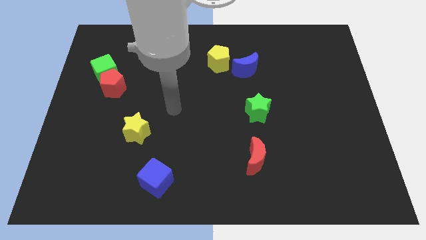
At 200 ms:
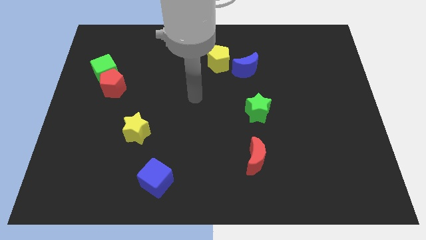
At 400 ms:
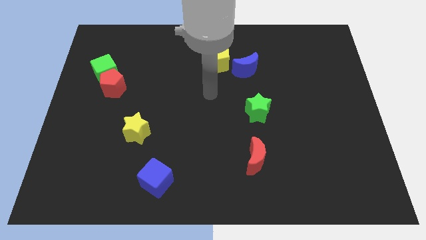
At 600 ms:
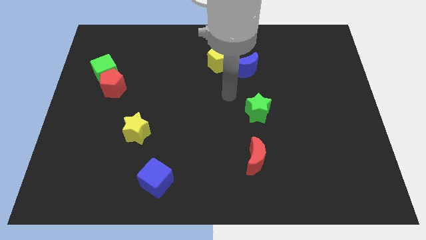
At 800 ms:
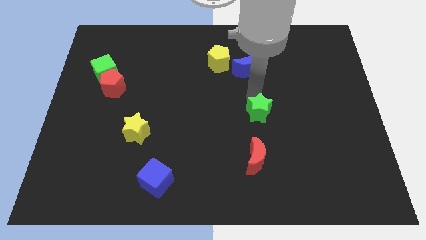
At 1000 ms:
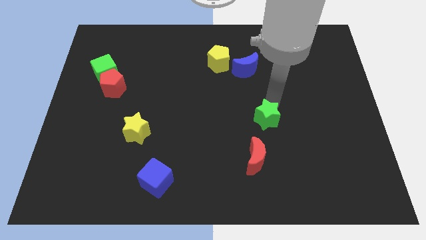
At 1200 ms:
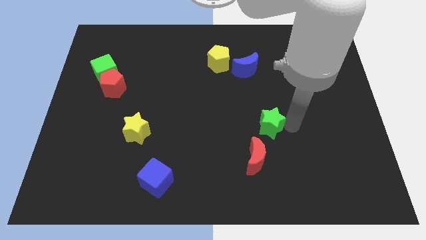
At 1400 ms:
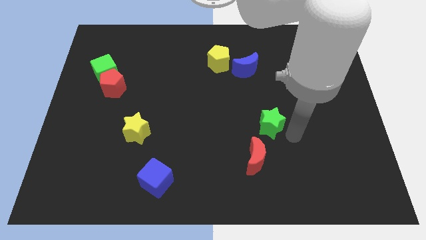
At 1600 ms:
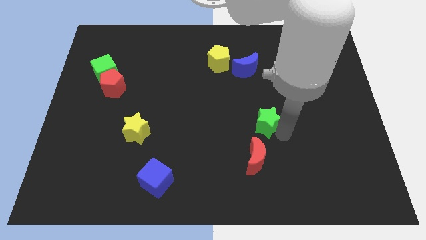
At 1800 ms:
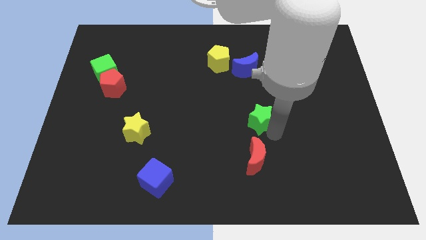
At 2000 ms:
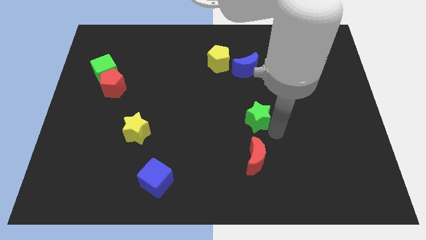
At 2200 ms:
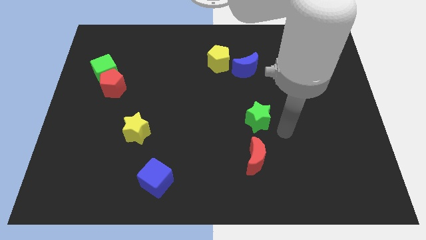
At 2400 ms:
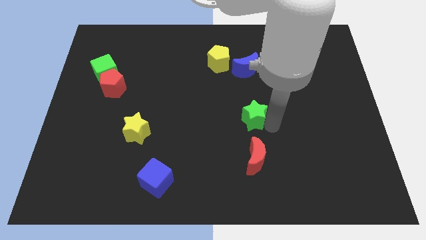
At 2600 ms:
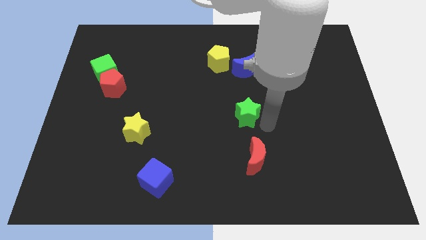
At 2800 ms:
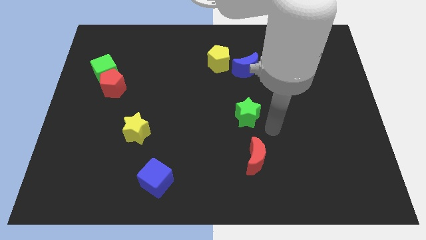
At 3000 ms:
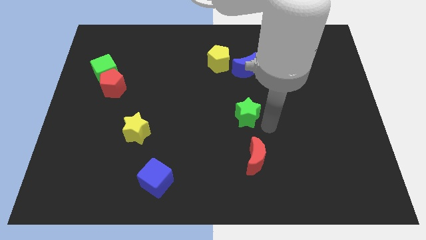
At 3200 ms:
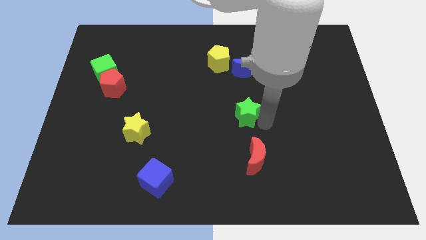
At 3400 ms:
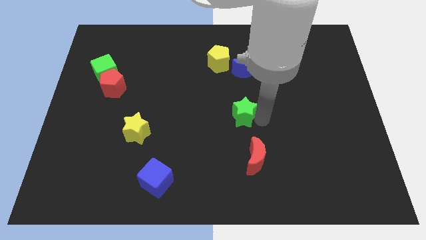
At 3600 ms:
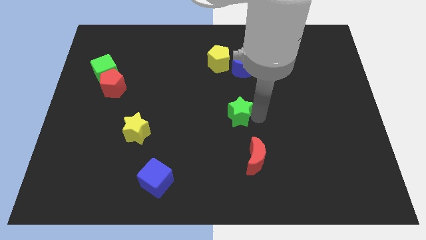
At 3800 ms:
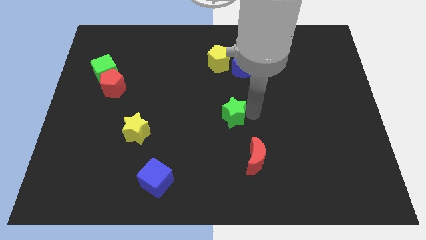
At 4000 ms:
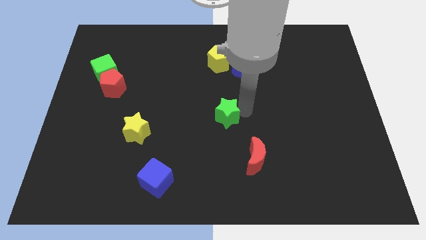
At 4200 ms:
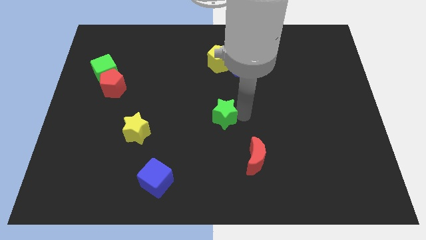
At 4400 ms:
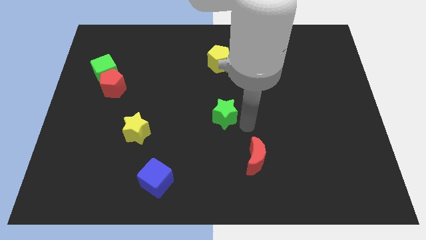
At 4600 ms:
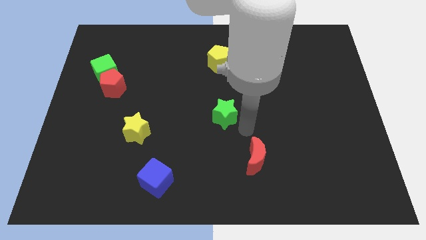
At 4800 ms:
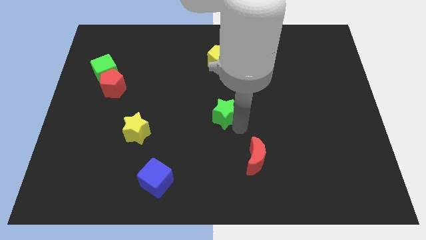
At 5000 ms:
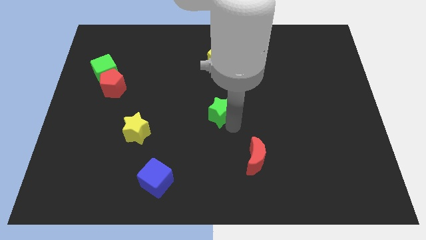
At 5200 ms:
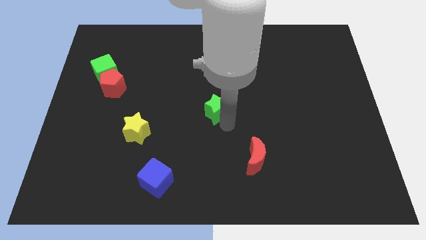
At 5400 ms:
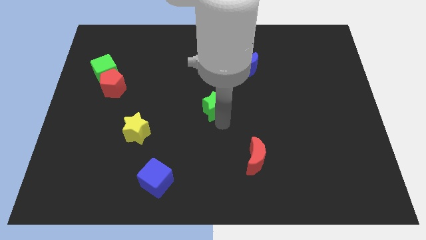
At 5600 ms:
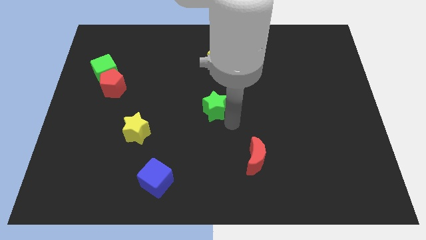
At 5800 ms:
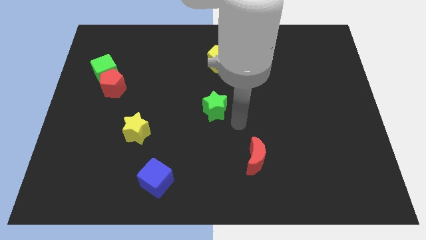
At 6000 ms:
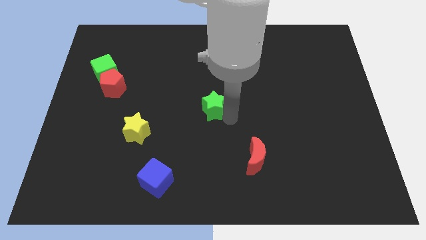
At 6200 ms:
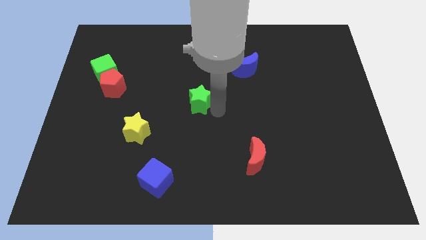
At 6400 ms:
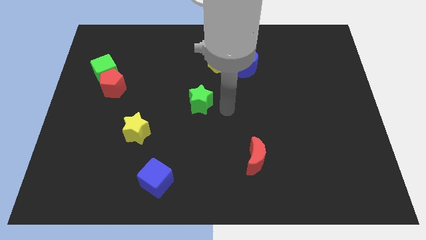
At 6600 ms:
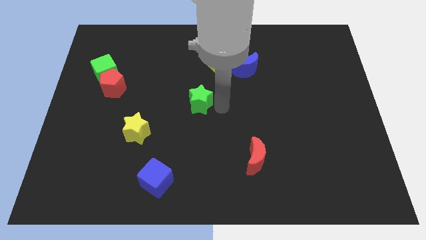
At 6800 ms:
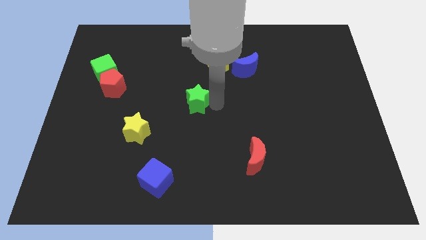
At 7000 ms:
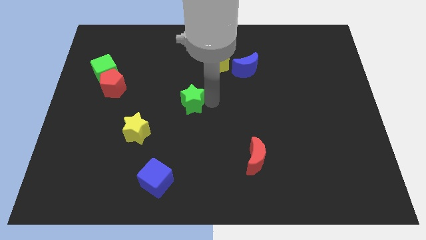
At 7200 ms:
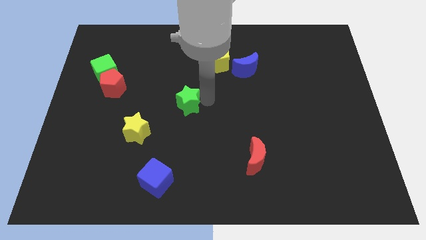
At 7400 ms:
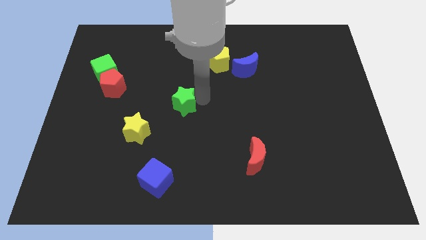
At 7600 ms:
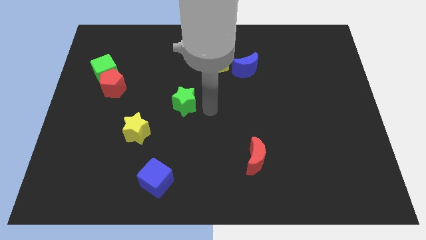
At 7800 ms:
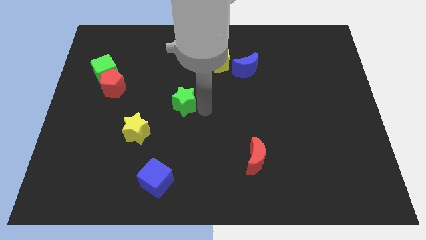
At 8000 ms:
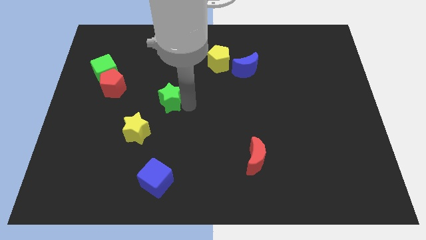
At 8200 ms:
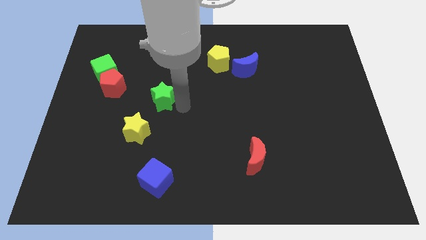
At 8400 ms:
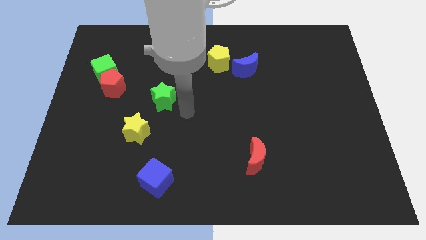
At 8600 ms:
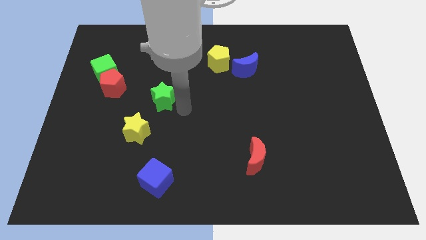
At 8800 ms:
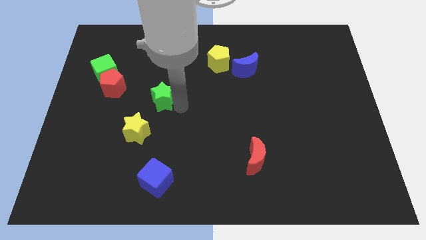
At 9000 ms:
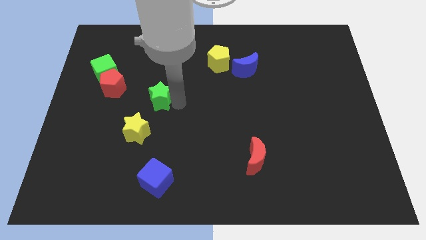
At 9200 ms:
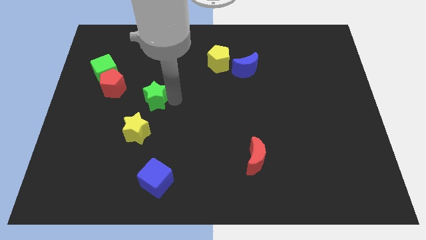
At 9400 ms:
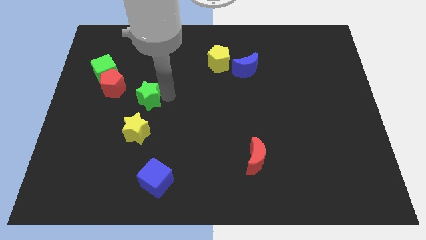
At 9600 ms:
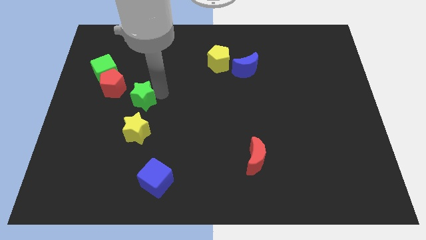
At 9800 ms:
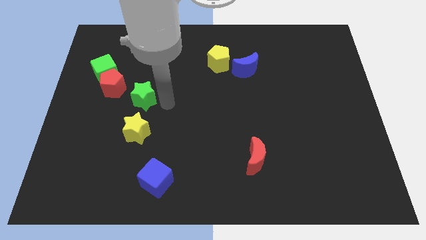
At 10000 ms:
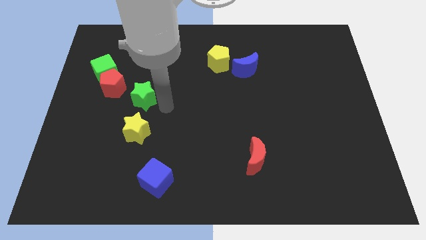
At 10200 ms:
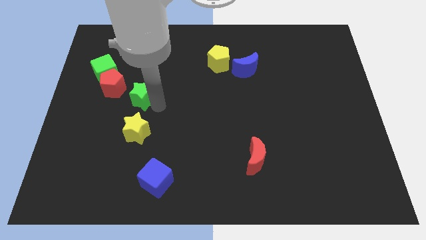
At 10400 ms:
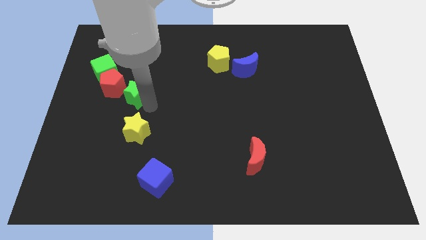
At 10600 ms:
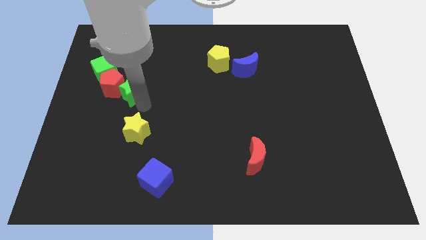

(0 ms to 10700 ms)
push the green star towards the red pentagon

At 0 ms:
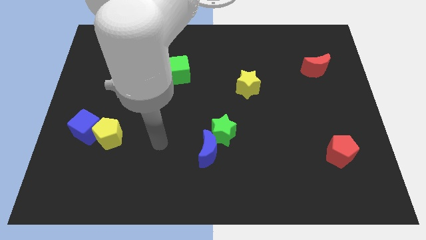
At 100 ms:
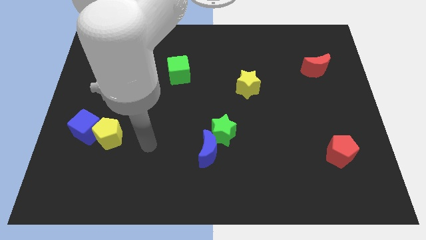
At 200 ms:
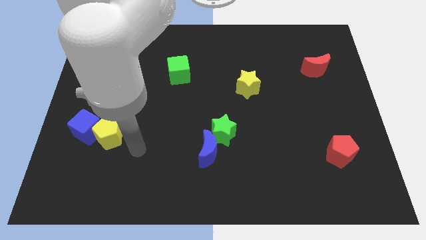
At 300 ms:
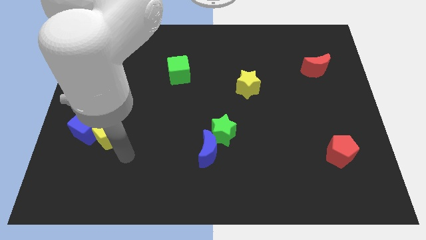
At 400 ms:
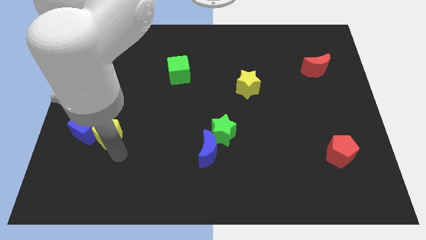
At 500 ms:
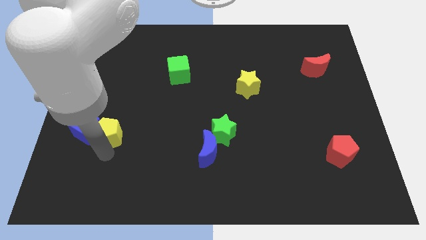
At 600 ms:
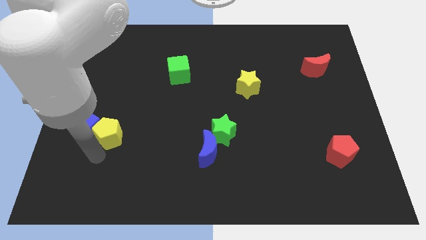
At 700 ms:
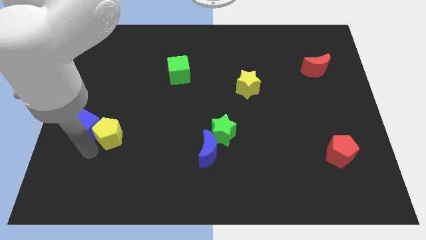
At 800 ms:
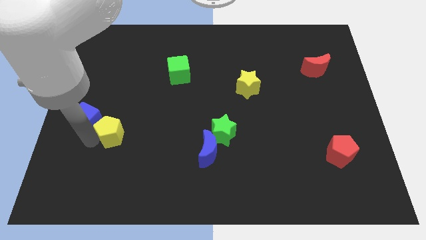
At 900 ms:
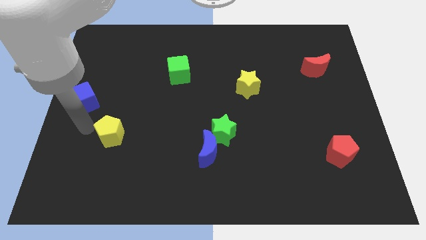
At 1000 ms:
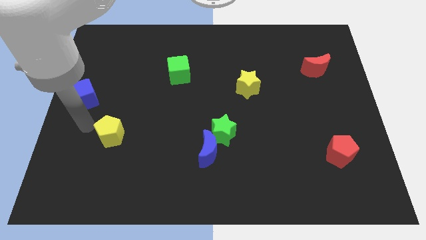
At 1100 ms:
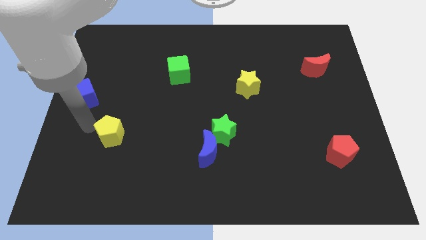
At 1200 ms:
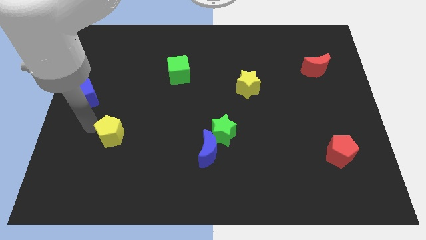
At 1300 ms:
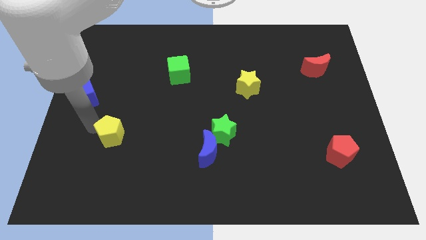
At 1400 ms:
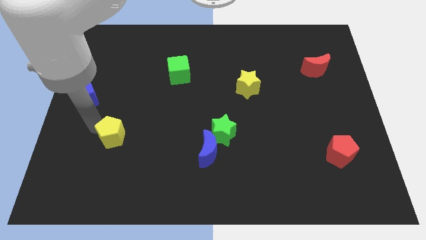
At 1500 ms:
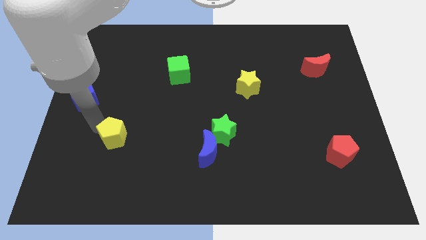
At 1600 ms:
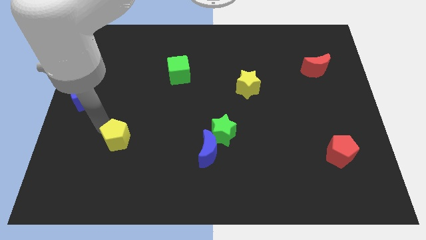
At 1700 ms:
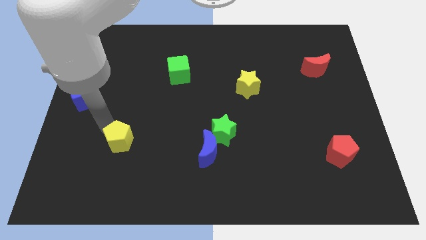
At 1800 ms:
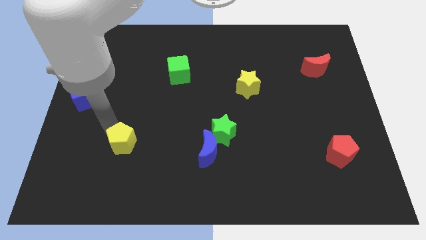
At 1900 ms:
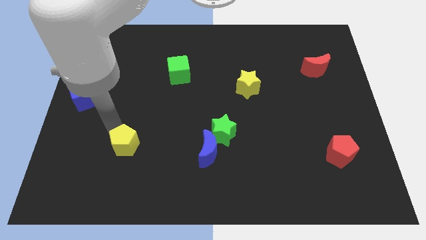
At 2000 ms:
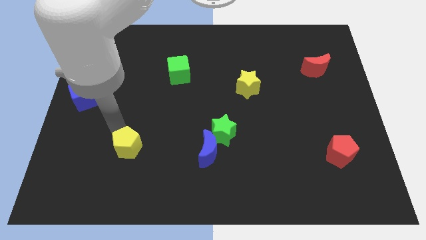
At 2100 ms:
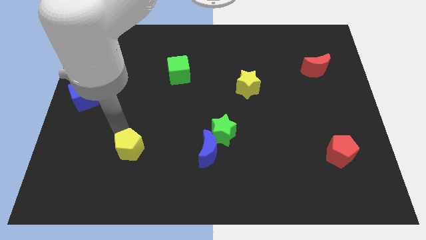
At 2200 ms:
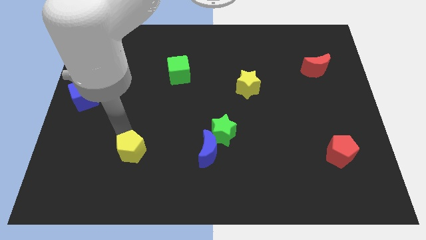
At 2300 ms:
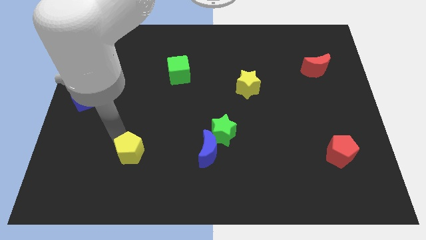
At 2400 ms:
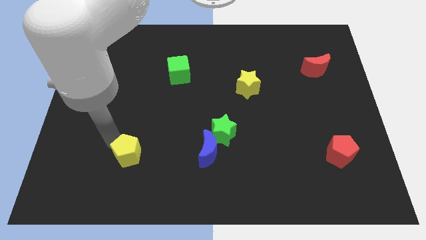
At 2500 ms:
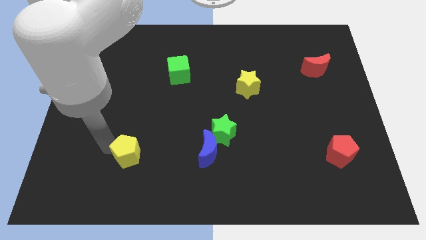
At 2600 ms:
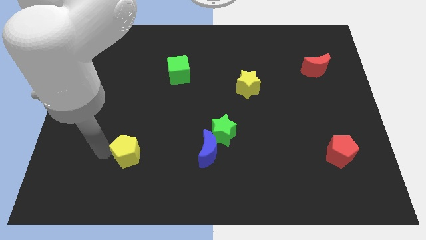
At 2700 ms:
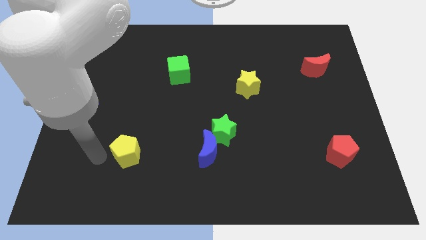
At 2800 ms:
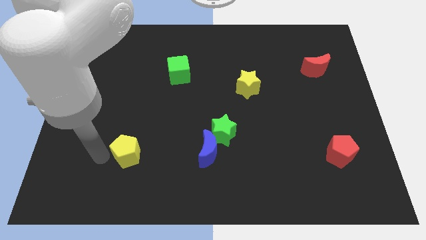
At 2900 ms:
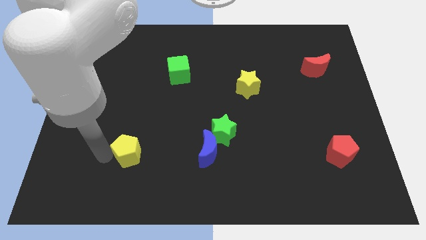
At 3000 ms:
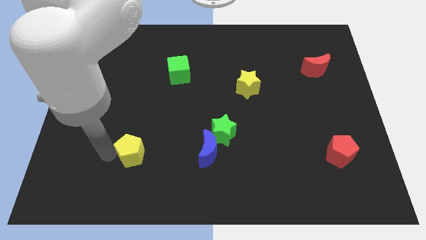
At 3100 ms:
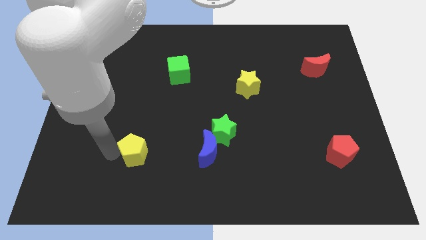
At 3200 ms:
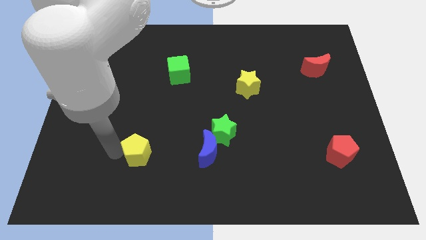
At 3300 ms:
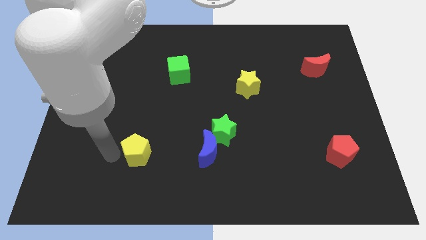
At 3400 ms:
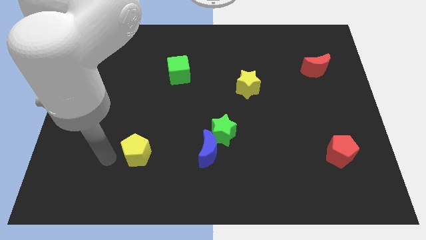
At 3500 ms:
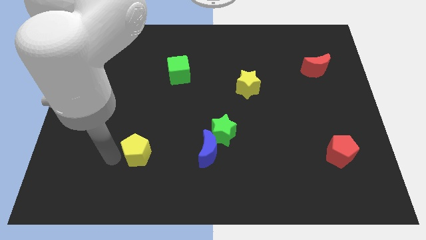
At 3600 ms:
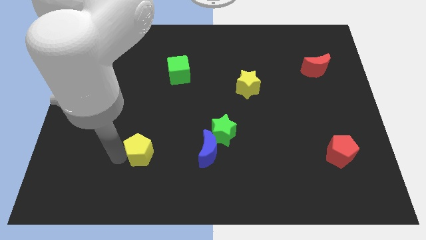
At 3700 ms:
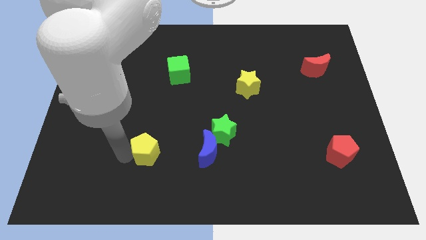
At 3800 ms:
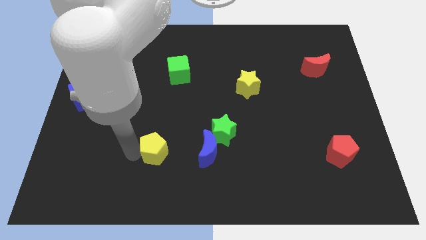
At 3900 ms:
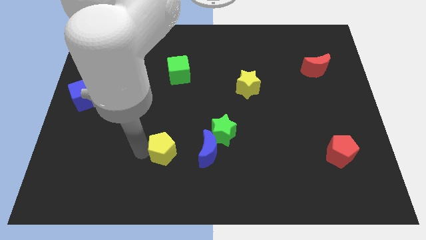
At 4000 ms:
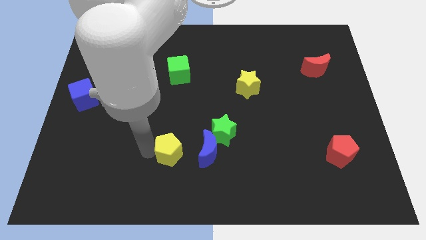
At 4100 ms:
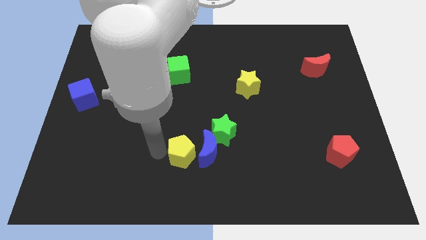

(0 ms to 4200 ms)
move the yellow pentagon next to the blue moon
